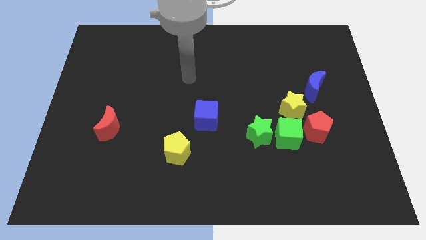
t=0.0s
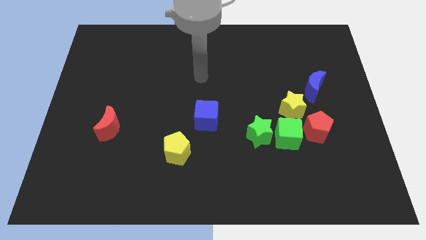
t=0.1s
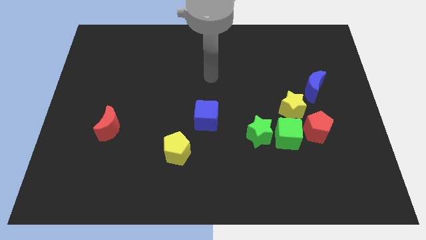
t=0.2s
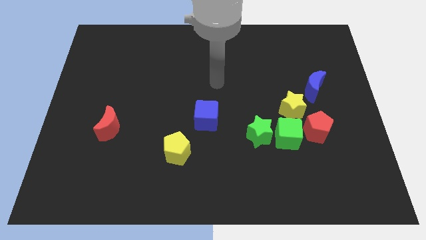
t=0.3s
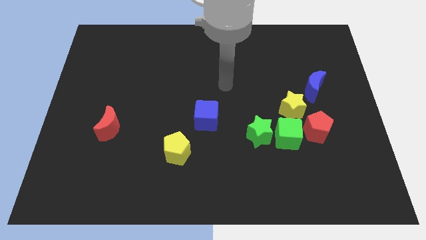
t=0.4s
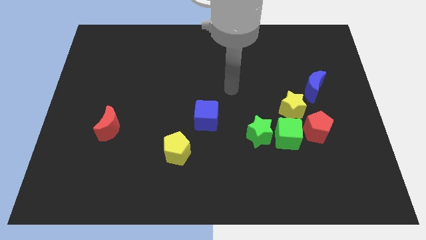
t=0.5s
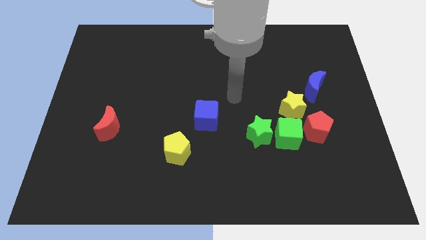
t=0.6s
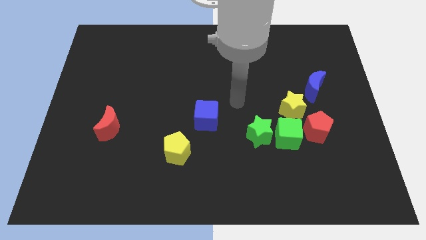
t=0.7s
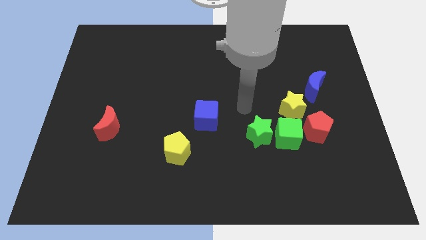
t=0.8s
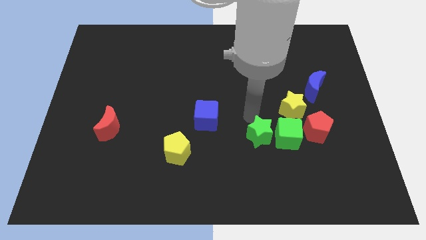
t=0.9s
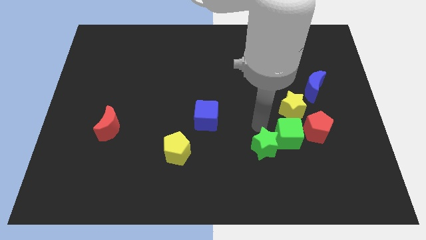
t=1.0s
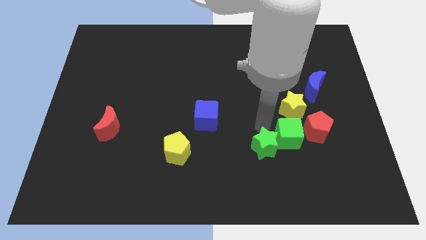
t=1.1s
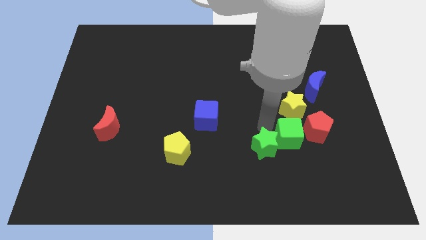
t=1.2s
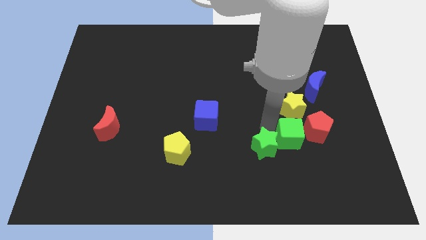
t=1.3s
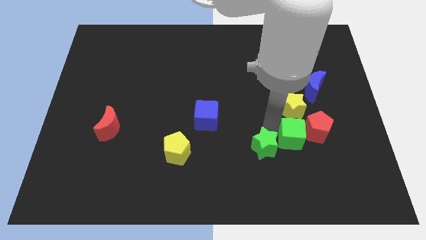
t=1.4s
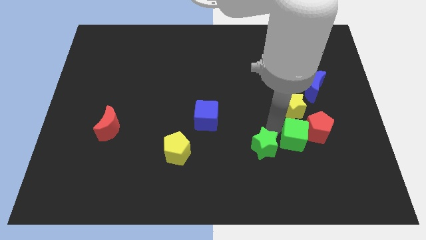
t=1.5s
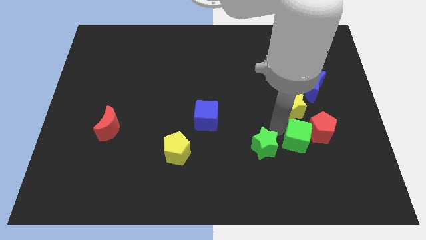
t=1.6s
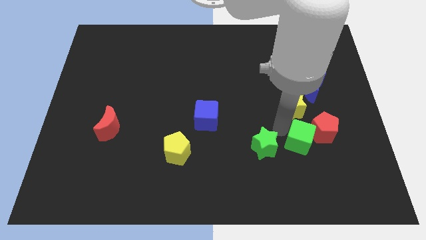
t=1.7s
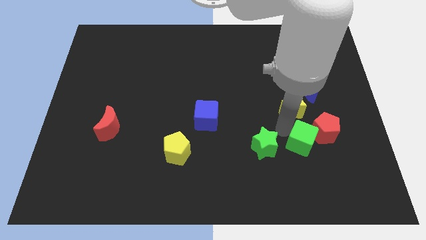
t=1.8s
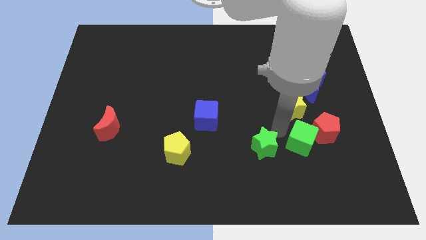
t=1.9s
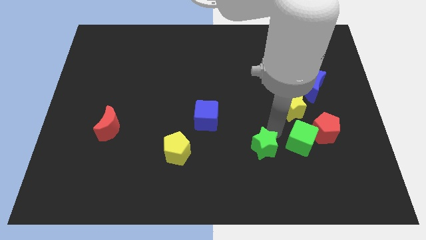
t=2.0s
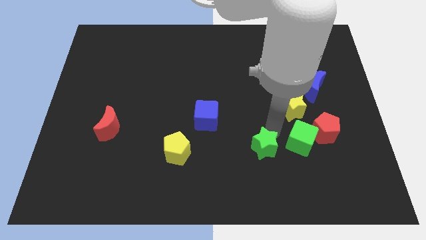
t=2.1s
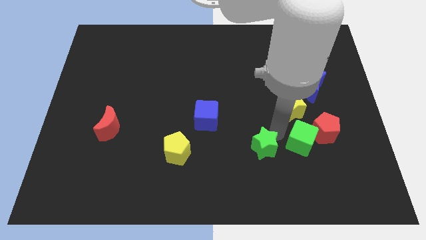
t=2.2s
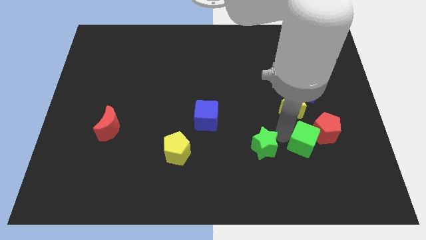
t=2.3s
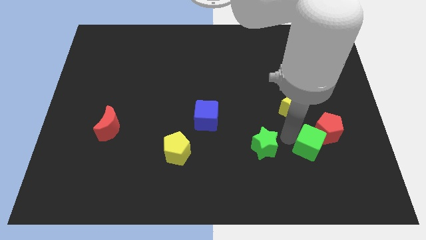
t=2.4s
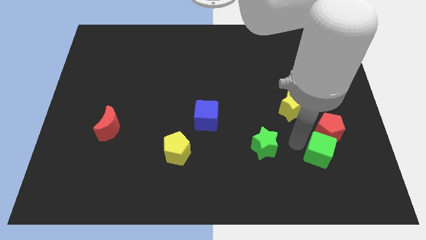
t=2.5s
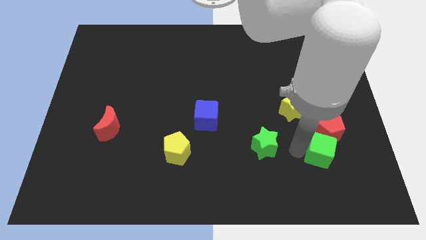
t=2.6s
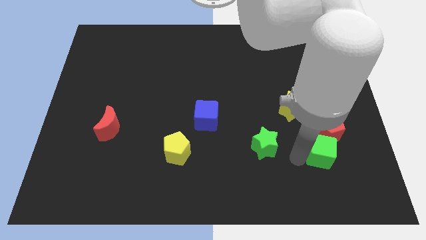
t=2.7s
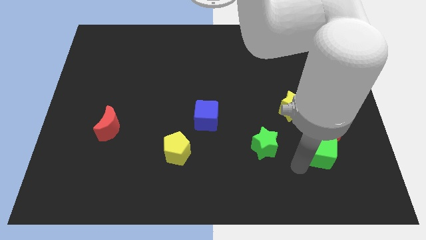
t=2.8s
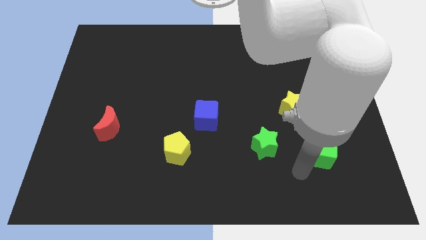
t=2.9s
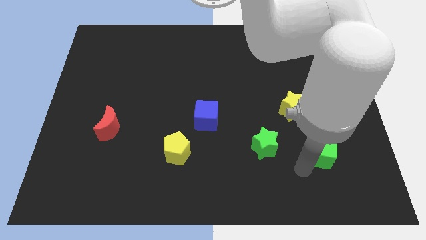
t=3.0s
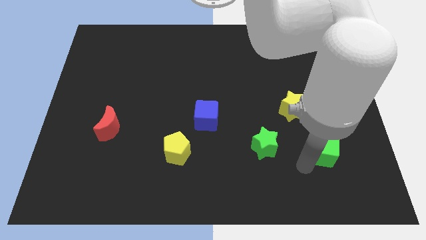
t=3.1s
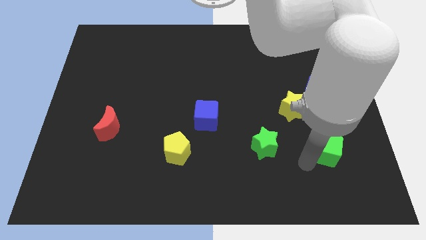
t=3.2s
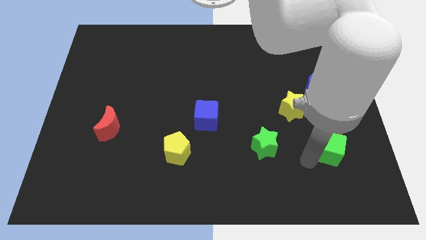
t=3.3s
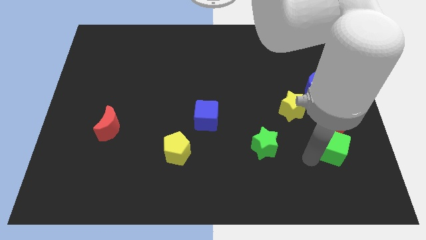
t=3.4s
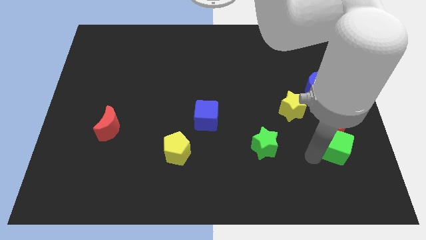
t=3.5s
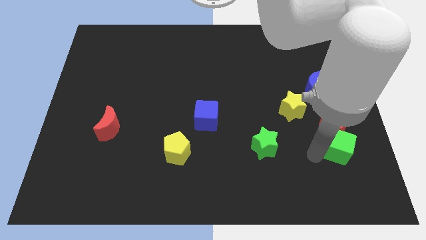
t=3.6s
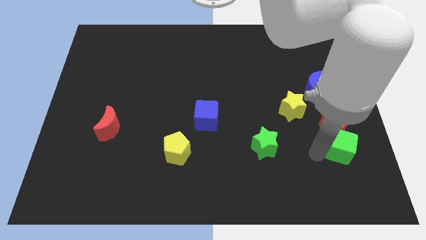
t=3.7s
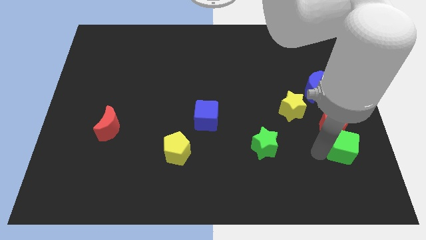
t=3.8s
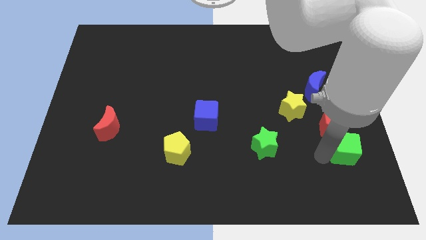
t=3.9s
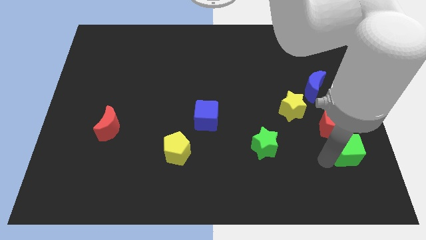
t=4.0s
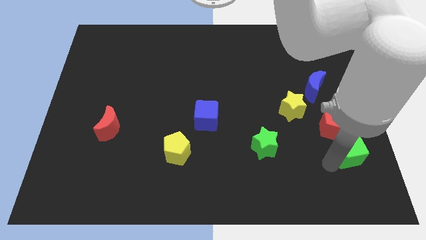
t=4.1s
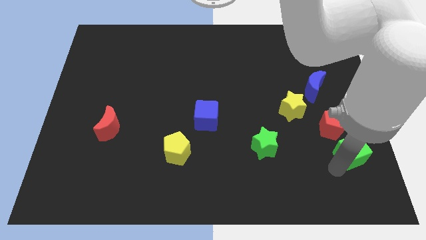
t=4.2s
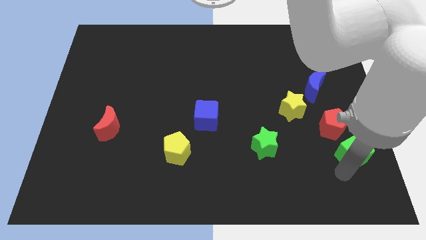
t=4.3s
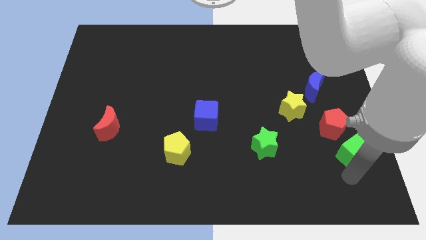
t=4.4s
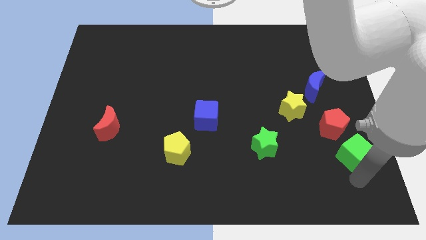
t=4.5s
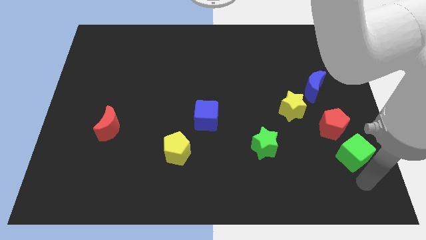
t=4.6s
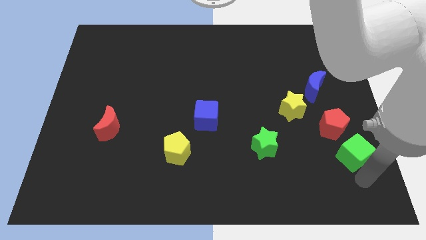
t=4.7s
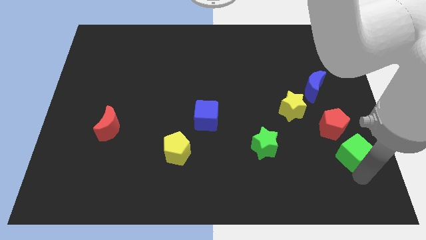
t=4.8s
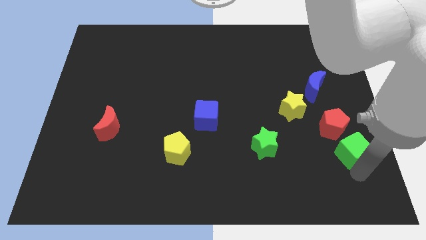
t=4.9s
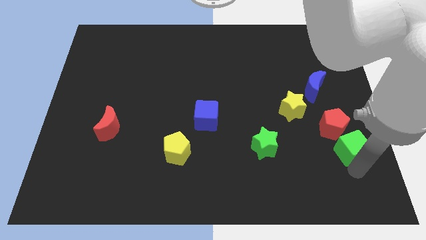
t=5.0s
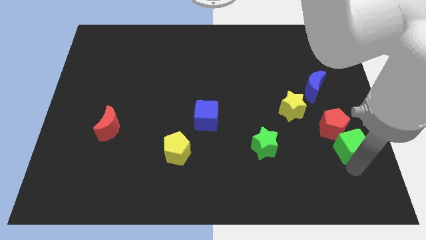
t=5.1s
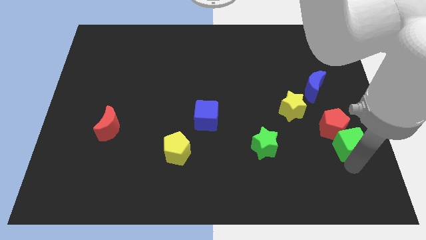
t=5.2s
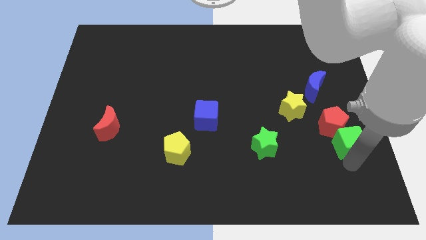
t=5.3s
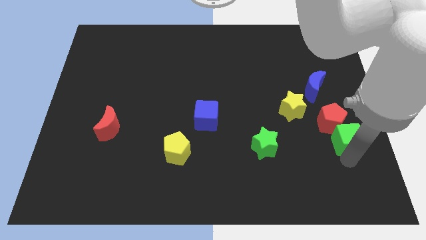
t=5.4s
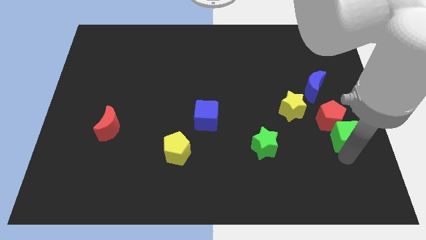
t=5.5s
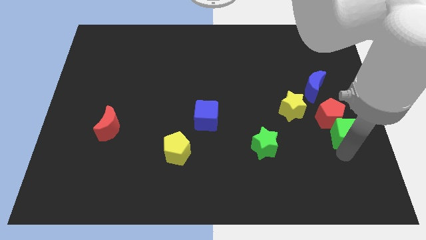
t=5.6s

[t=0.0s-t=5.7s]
move the green cube to the center right

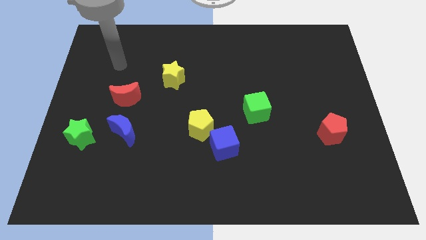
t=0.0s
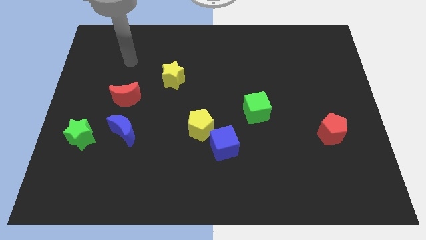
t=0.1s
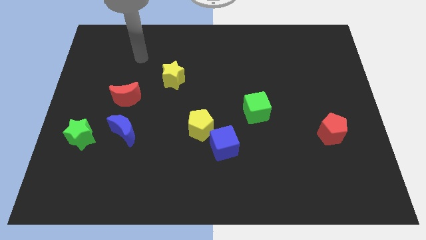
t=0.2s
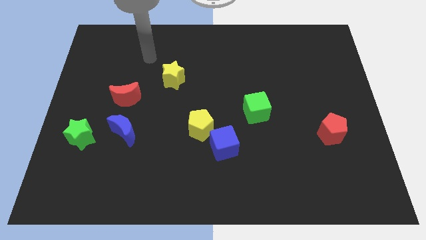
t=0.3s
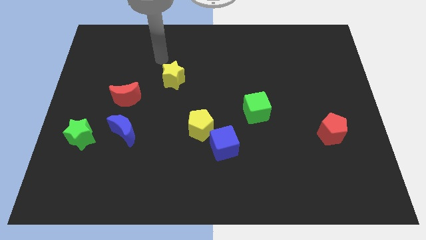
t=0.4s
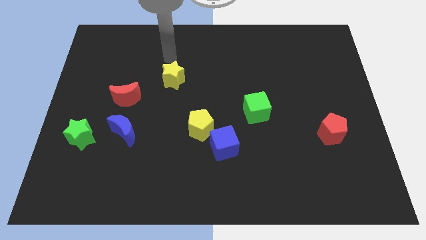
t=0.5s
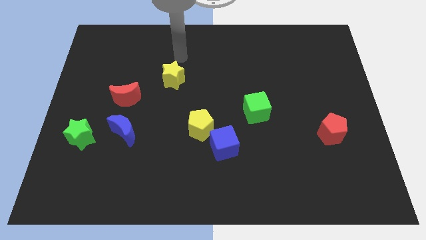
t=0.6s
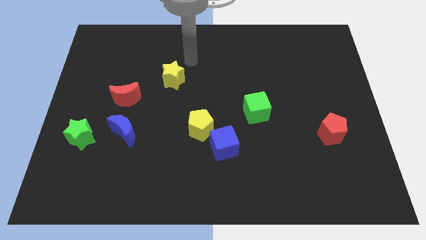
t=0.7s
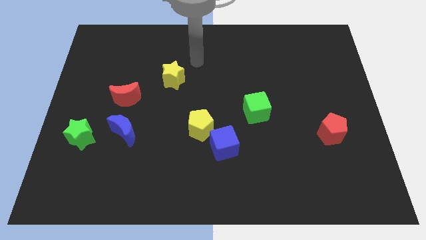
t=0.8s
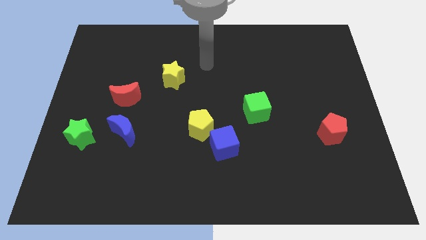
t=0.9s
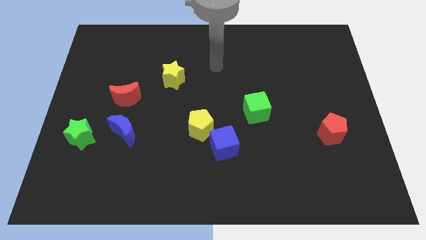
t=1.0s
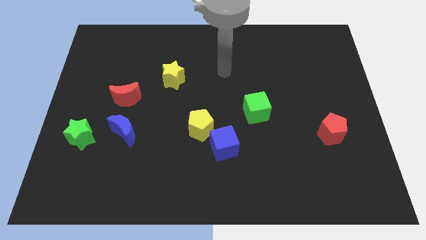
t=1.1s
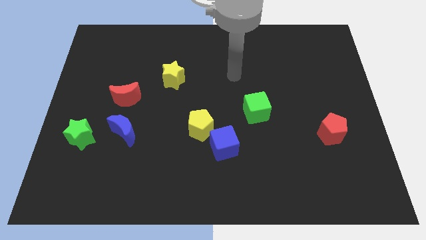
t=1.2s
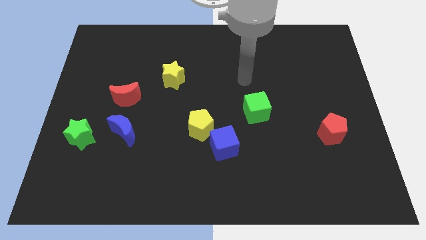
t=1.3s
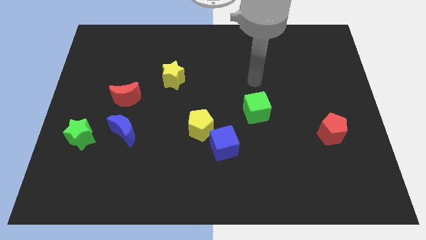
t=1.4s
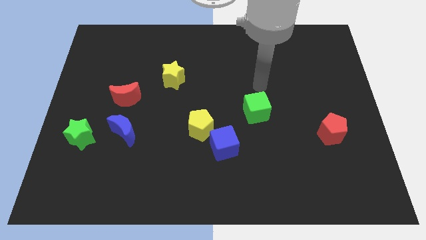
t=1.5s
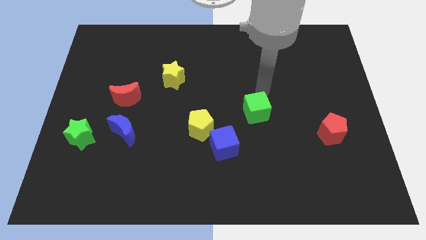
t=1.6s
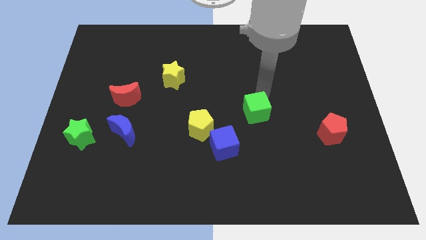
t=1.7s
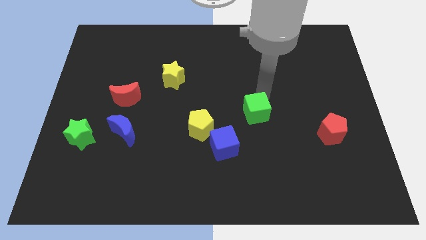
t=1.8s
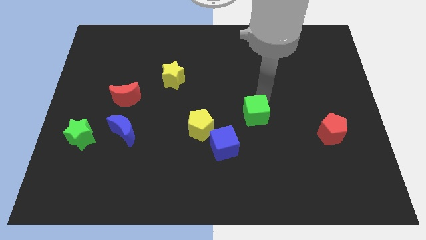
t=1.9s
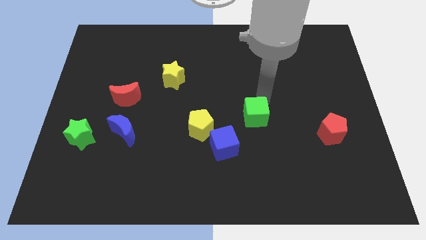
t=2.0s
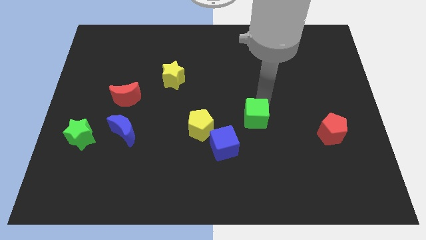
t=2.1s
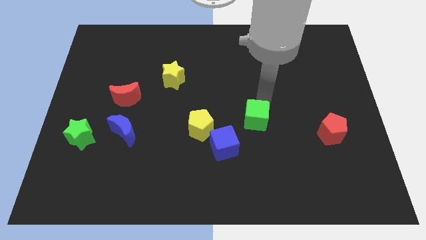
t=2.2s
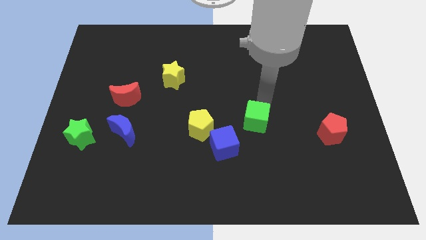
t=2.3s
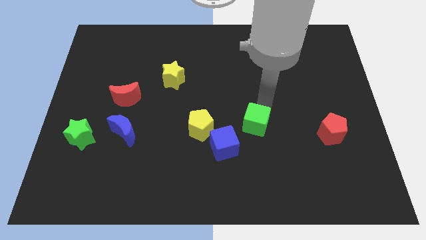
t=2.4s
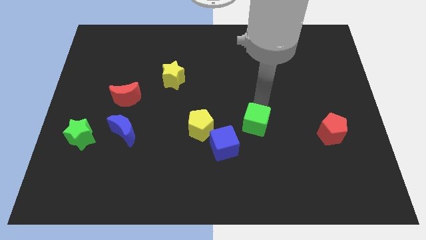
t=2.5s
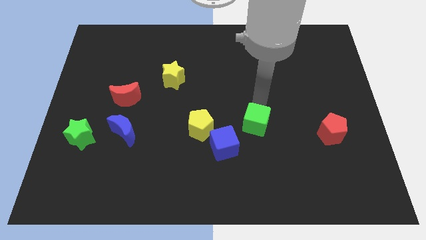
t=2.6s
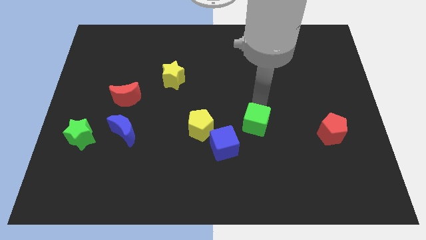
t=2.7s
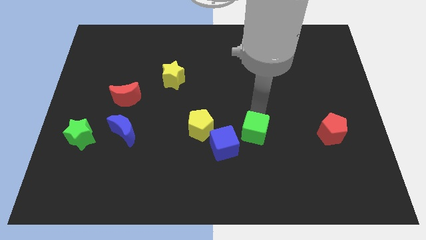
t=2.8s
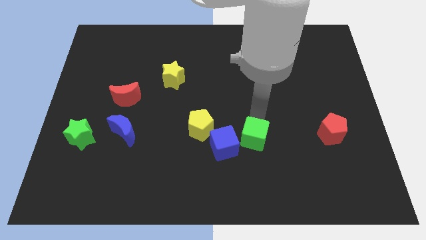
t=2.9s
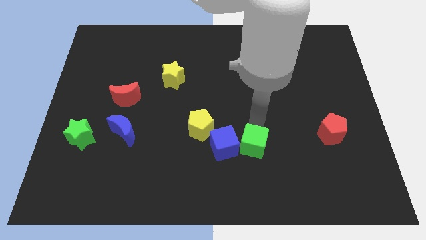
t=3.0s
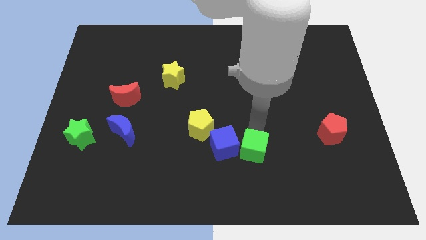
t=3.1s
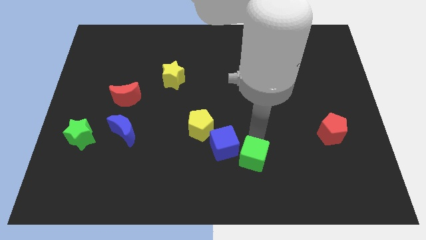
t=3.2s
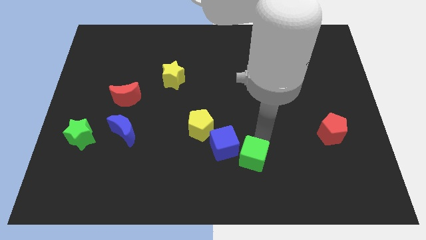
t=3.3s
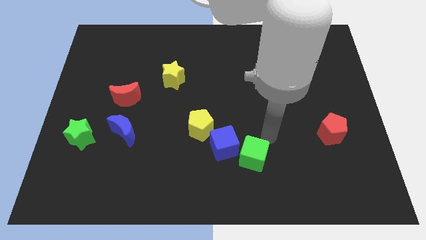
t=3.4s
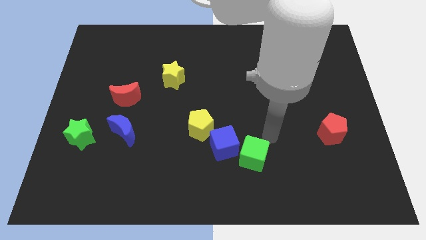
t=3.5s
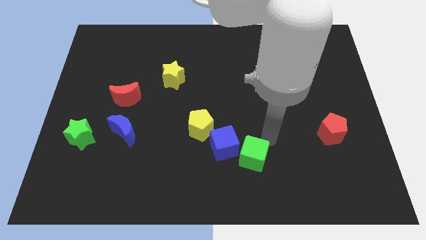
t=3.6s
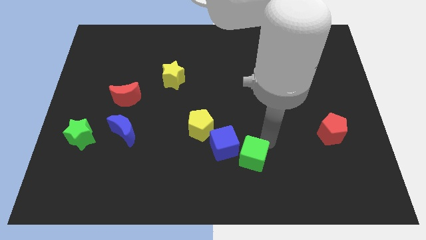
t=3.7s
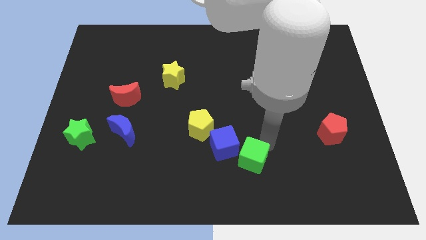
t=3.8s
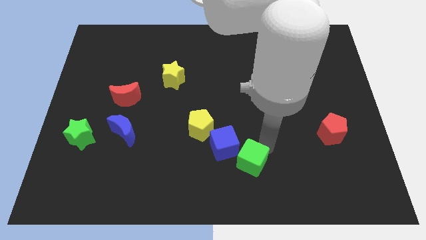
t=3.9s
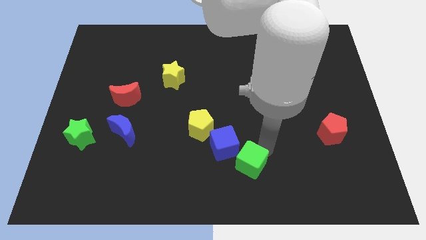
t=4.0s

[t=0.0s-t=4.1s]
push the green cube to the bottom side
